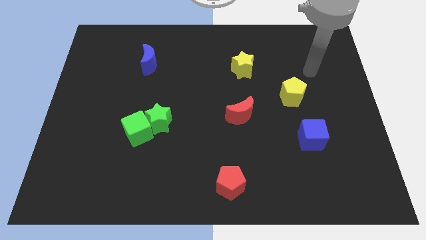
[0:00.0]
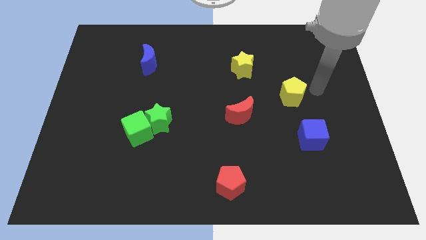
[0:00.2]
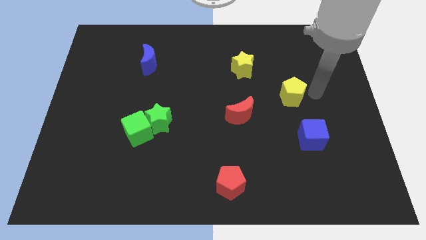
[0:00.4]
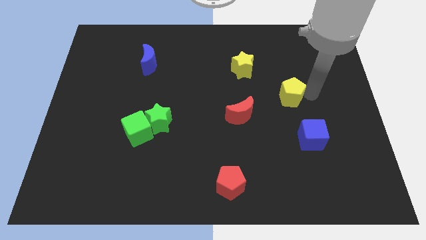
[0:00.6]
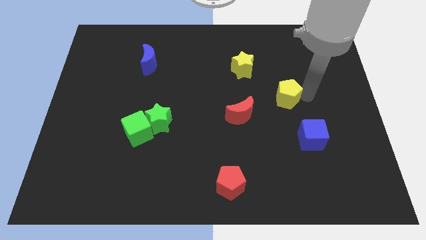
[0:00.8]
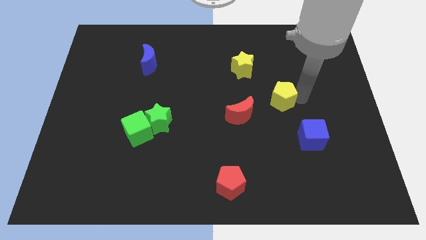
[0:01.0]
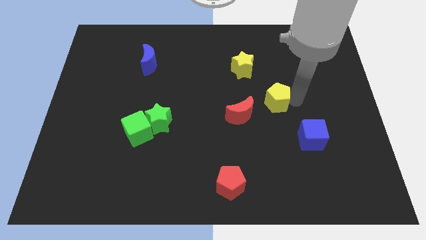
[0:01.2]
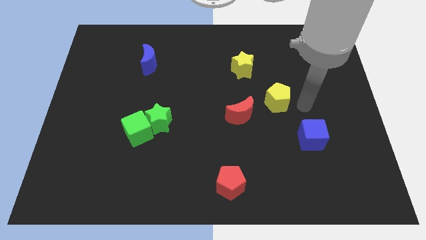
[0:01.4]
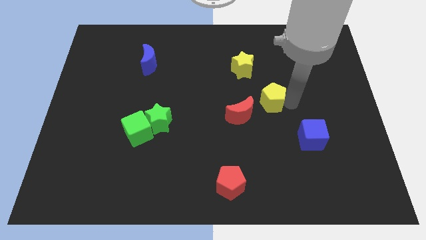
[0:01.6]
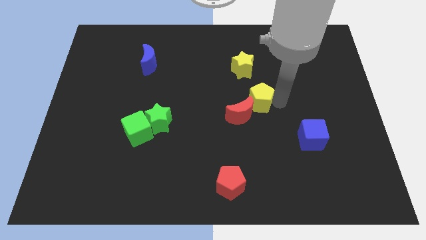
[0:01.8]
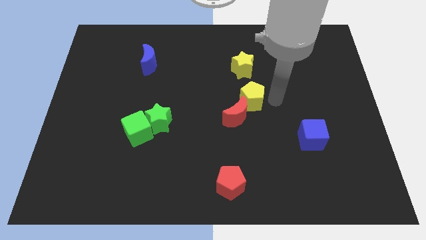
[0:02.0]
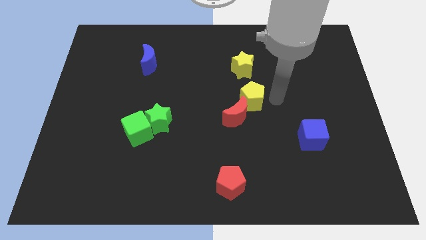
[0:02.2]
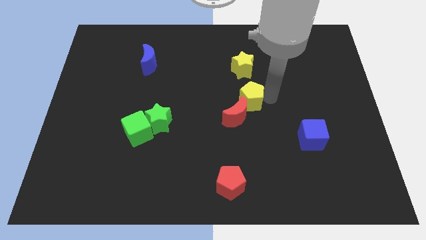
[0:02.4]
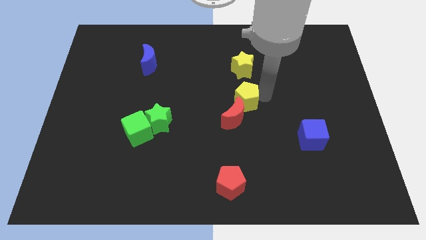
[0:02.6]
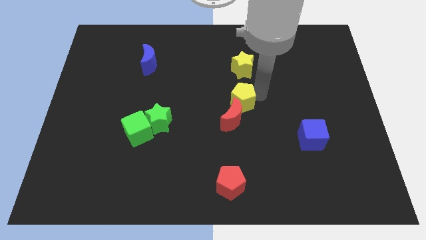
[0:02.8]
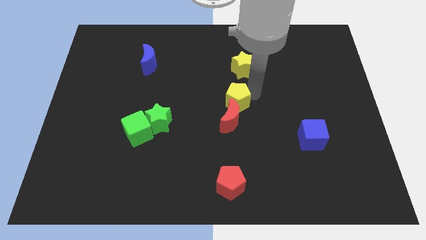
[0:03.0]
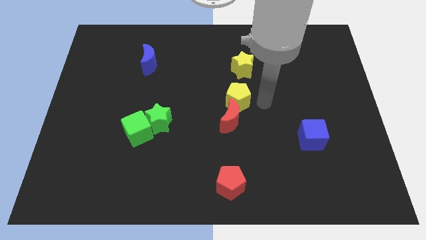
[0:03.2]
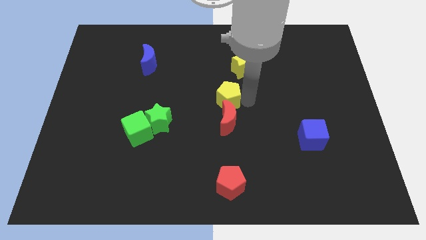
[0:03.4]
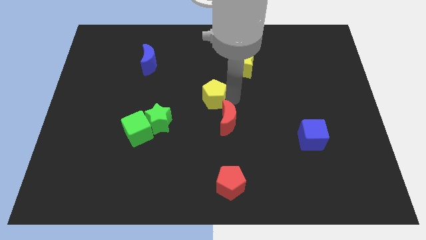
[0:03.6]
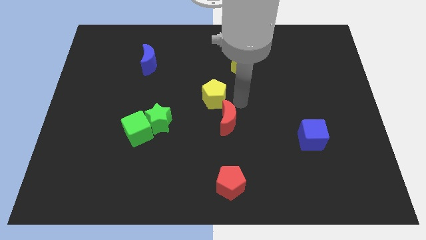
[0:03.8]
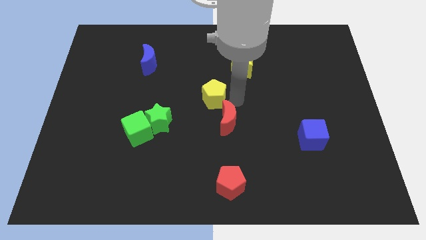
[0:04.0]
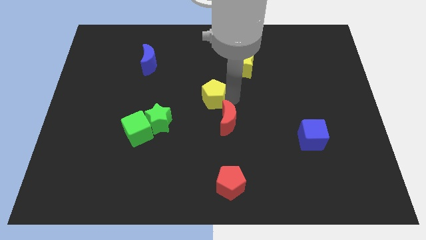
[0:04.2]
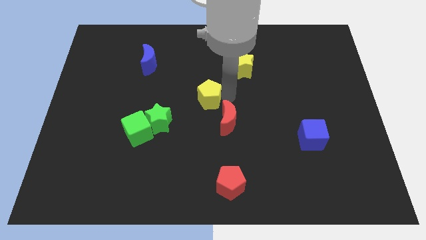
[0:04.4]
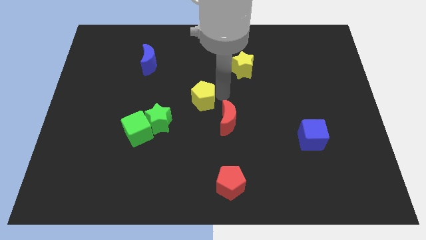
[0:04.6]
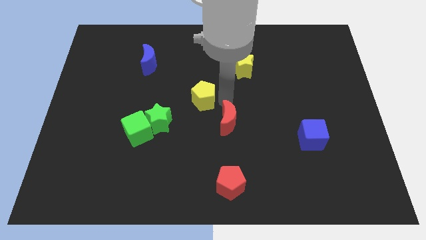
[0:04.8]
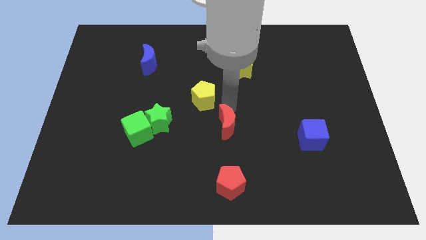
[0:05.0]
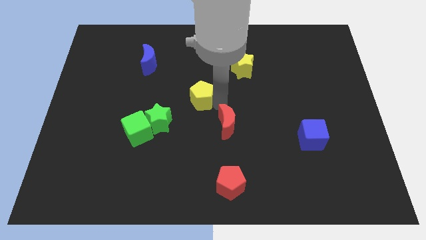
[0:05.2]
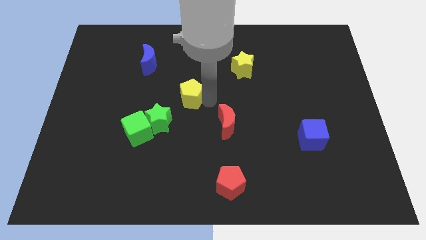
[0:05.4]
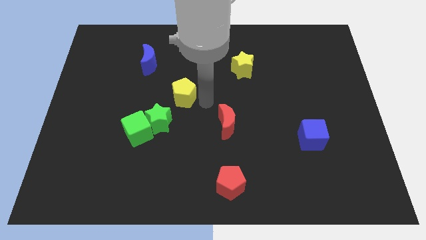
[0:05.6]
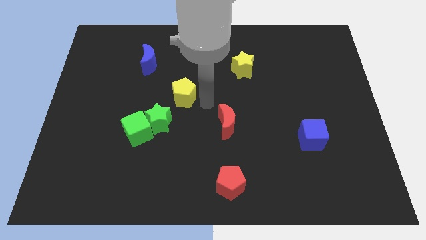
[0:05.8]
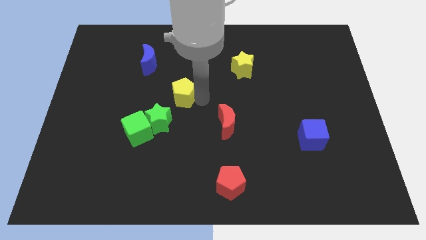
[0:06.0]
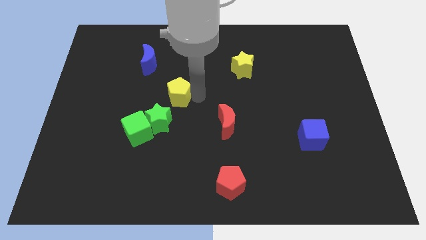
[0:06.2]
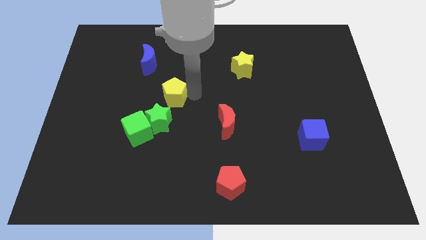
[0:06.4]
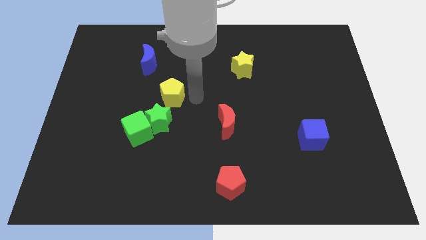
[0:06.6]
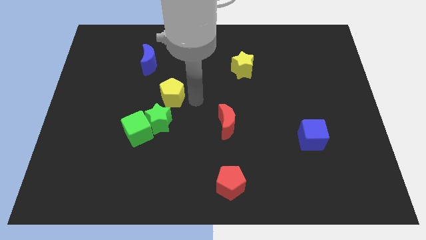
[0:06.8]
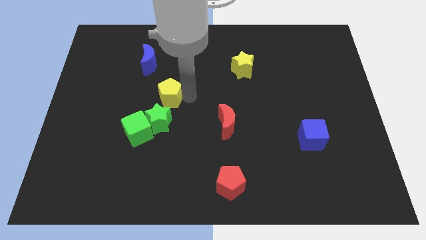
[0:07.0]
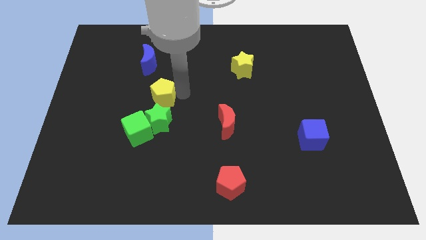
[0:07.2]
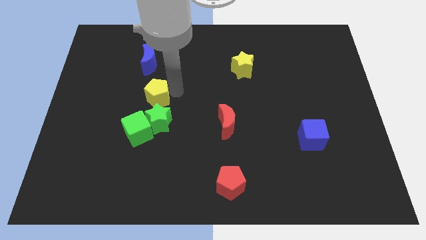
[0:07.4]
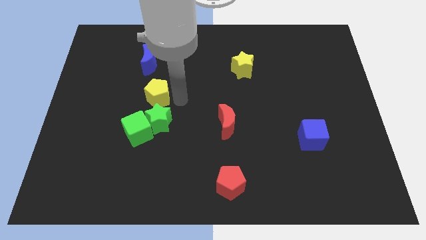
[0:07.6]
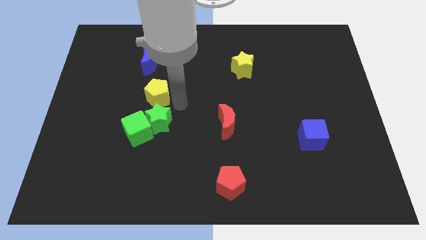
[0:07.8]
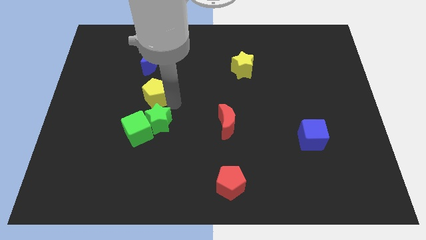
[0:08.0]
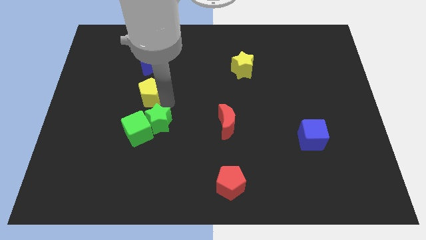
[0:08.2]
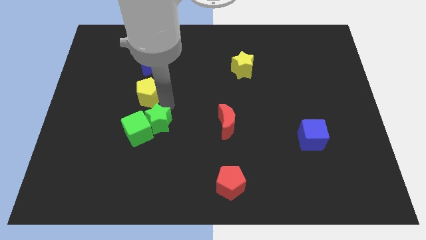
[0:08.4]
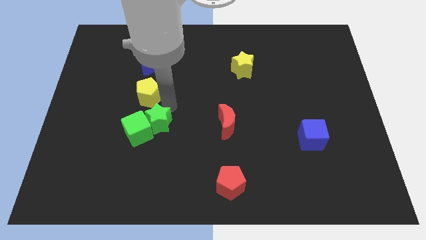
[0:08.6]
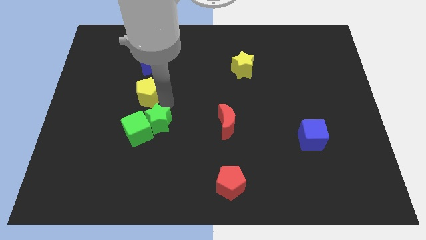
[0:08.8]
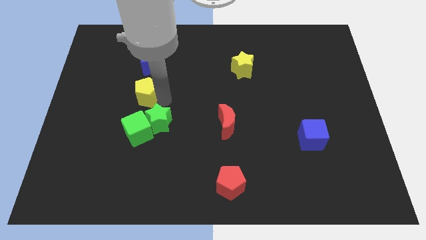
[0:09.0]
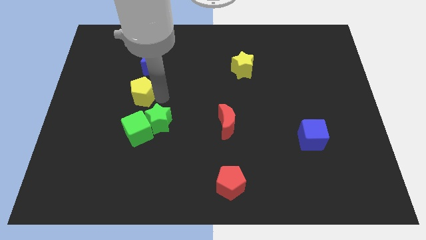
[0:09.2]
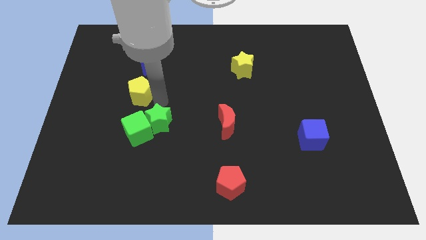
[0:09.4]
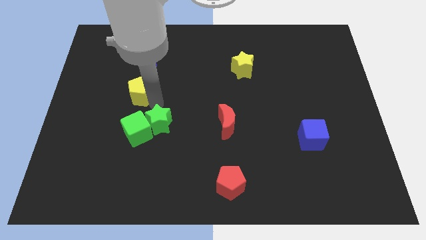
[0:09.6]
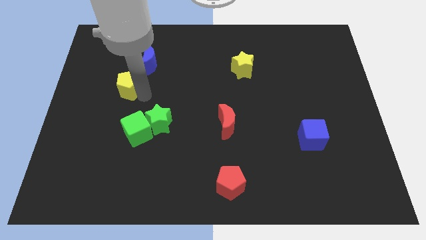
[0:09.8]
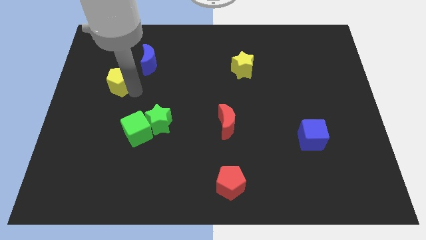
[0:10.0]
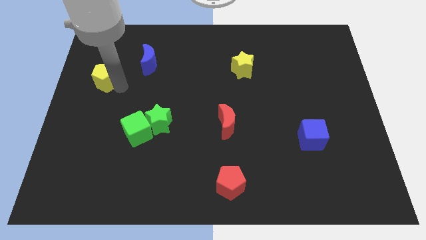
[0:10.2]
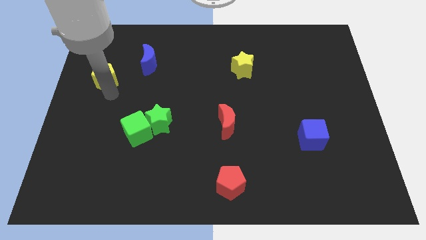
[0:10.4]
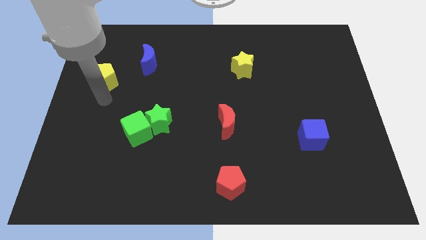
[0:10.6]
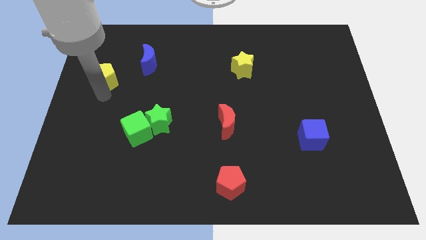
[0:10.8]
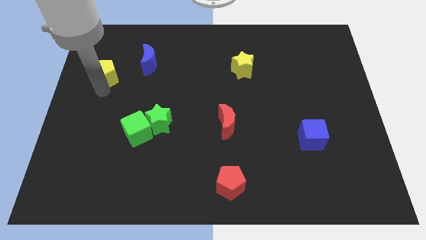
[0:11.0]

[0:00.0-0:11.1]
slide the yellow pentagon to the left of the blue moon

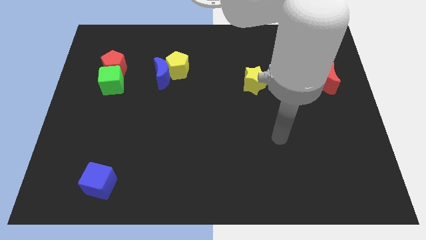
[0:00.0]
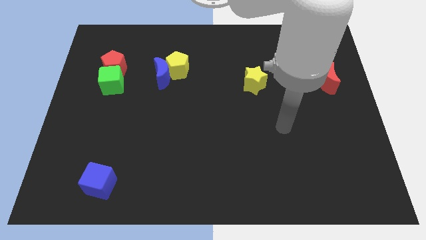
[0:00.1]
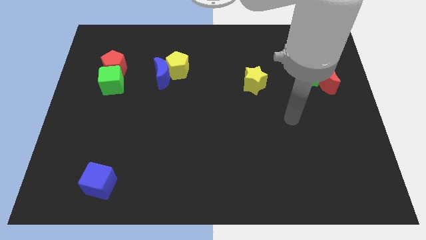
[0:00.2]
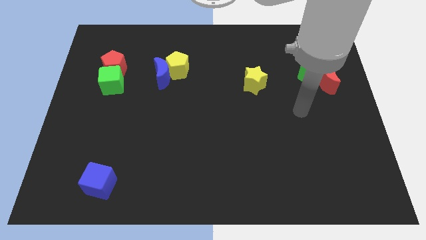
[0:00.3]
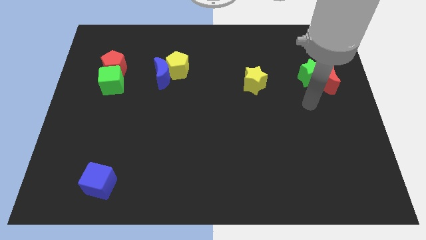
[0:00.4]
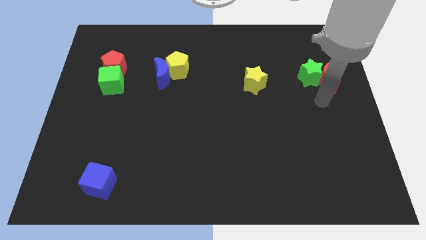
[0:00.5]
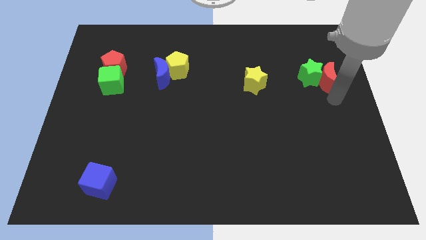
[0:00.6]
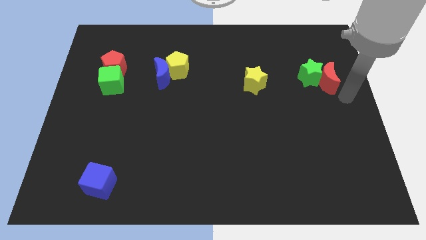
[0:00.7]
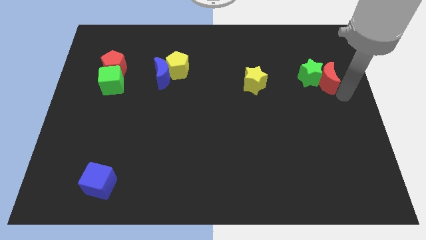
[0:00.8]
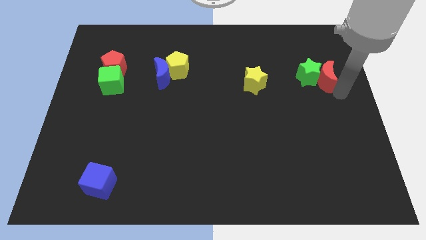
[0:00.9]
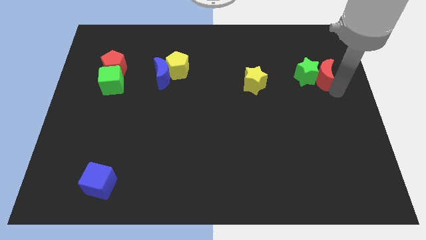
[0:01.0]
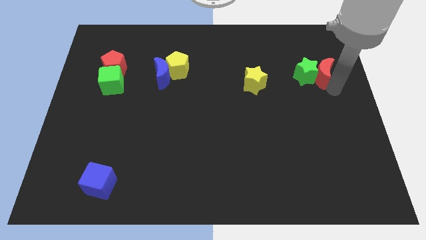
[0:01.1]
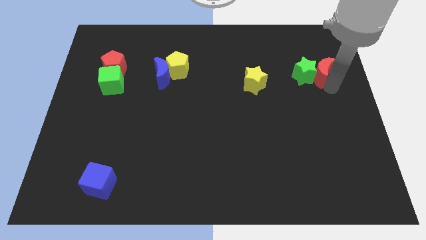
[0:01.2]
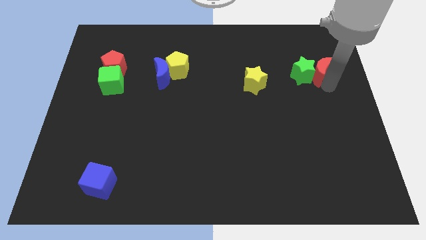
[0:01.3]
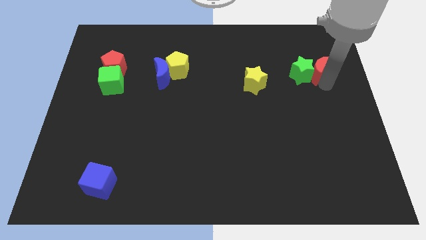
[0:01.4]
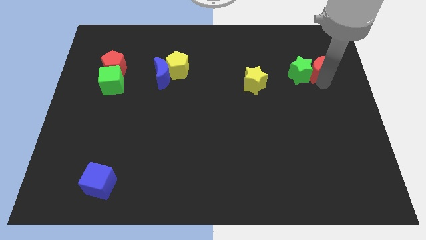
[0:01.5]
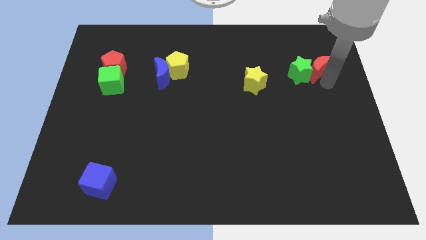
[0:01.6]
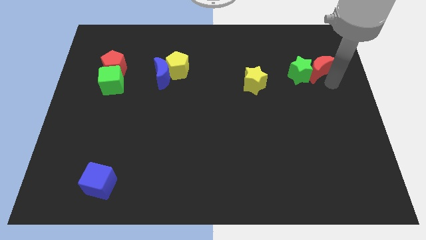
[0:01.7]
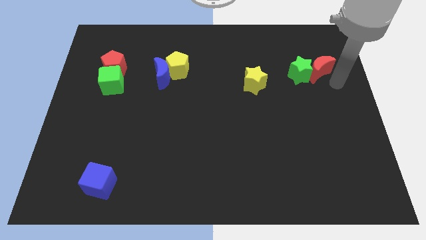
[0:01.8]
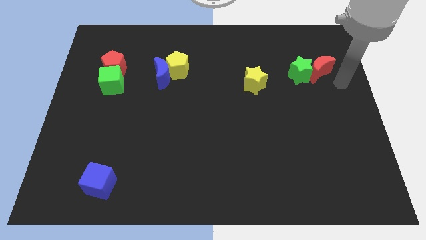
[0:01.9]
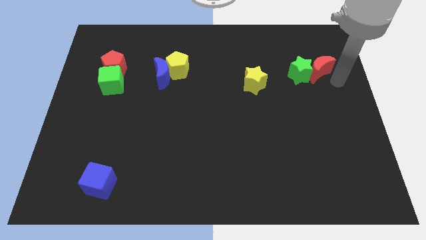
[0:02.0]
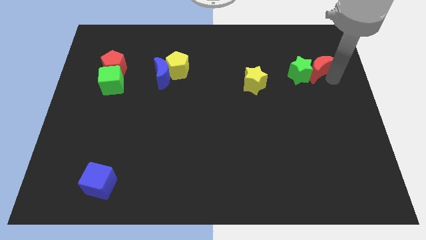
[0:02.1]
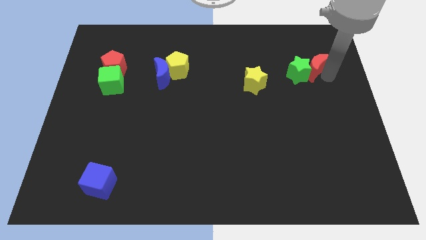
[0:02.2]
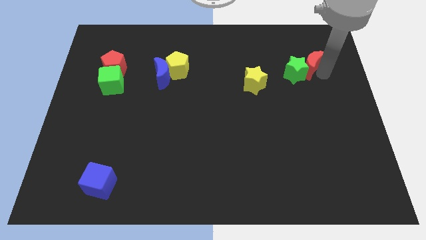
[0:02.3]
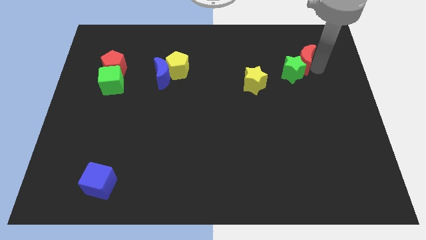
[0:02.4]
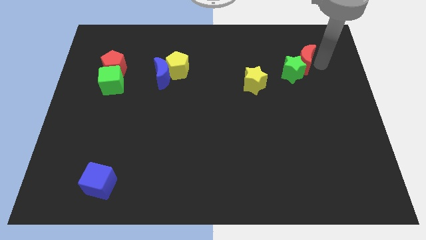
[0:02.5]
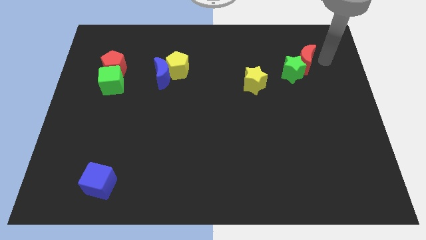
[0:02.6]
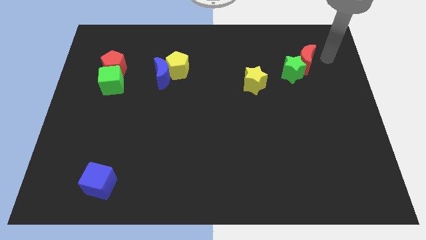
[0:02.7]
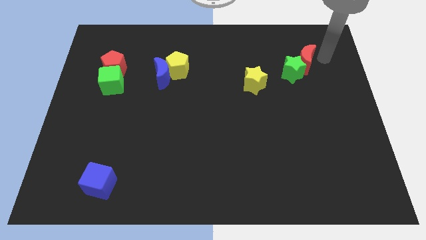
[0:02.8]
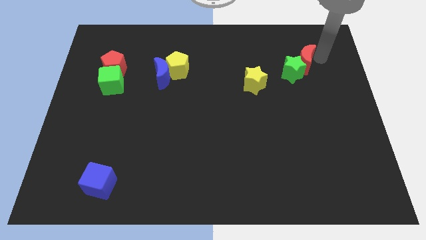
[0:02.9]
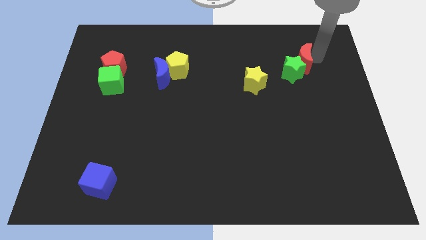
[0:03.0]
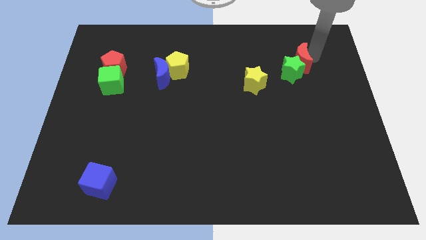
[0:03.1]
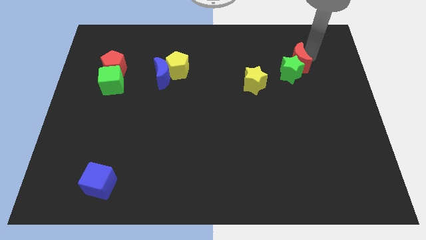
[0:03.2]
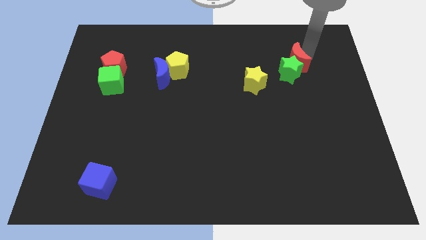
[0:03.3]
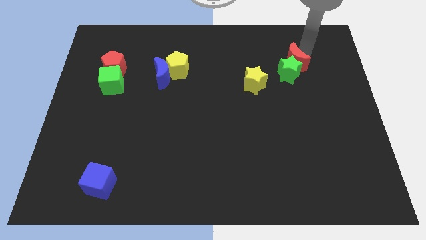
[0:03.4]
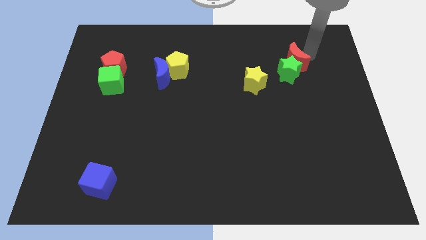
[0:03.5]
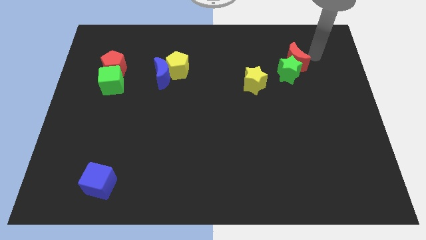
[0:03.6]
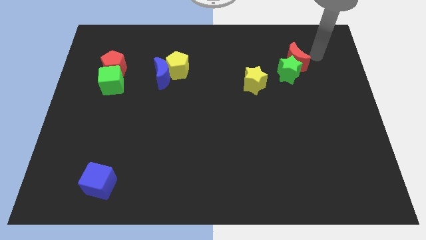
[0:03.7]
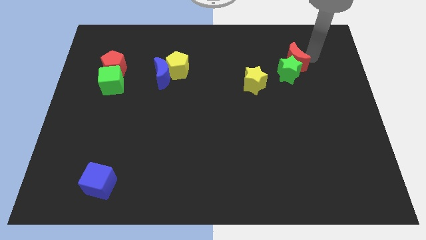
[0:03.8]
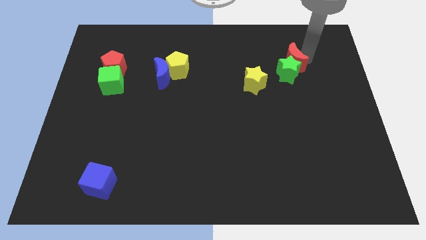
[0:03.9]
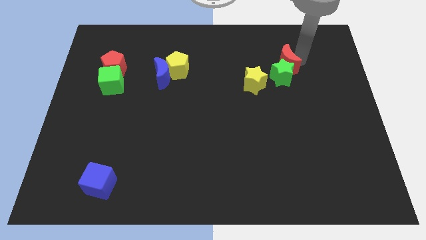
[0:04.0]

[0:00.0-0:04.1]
put the red moon to the top right of the yellow star
